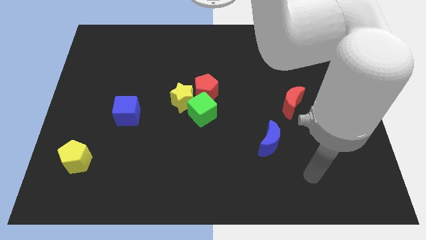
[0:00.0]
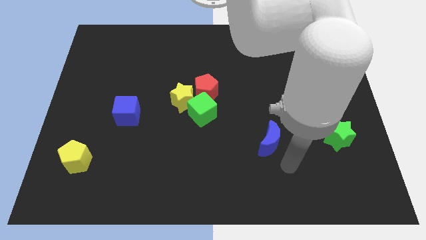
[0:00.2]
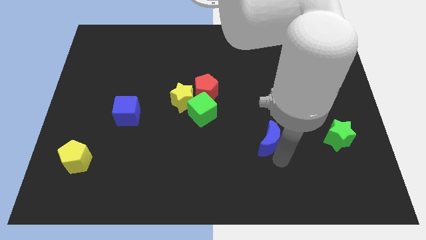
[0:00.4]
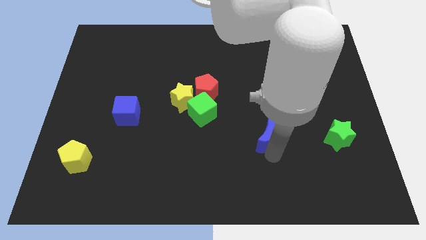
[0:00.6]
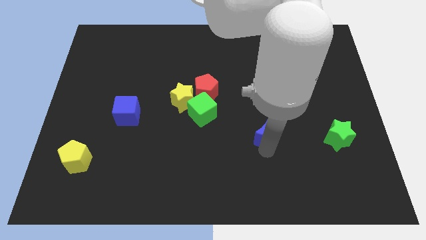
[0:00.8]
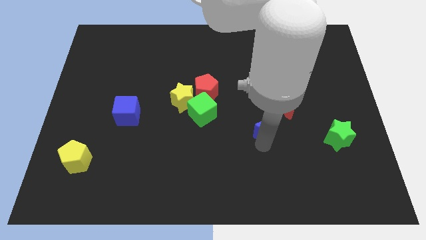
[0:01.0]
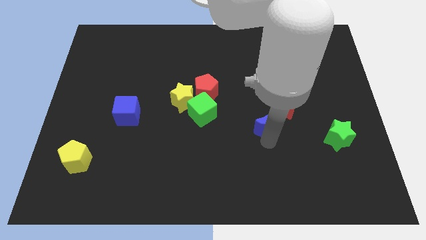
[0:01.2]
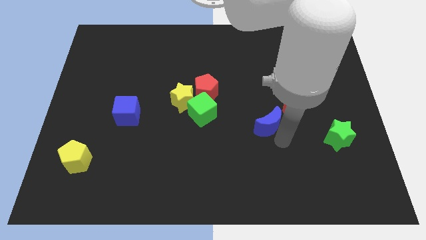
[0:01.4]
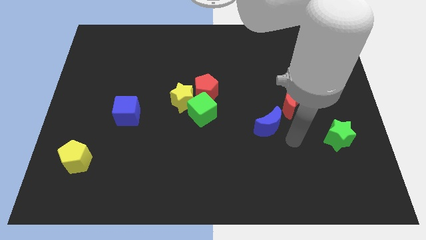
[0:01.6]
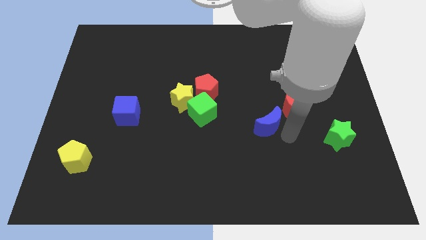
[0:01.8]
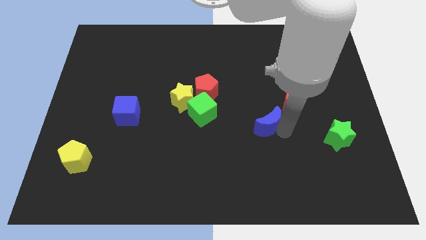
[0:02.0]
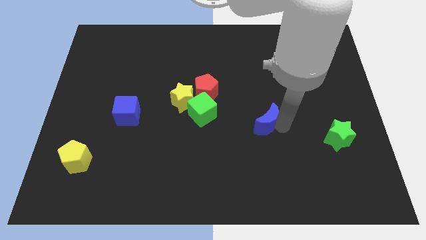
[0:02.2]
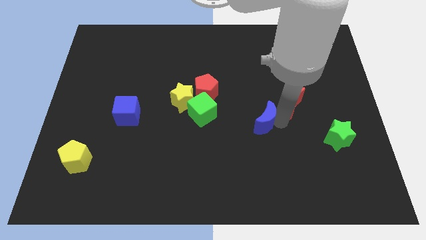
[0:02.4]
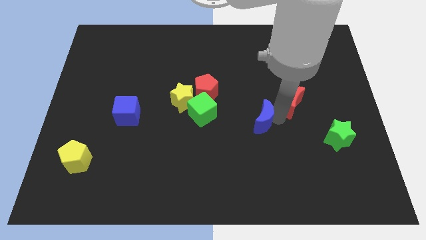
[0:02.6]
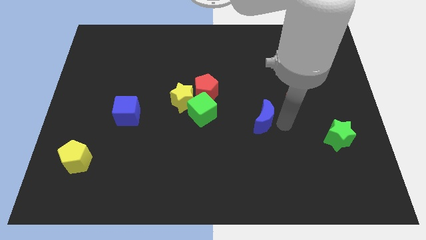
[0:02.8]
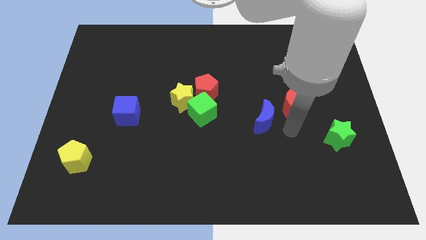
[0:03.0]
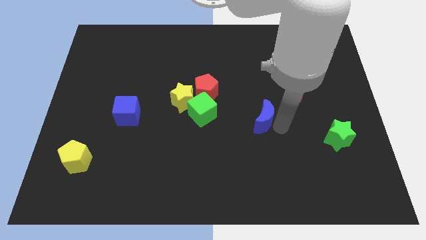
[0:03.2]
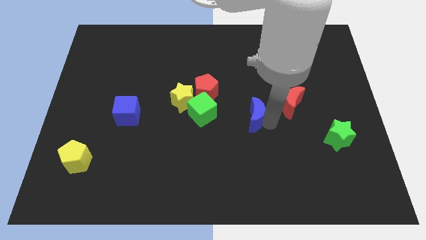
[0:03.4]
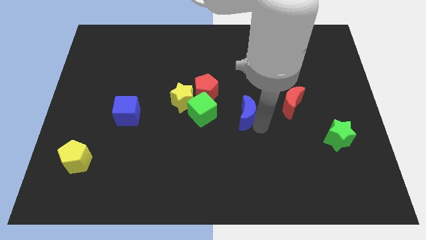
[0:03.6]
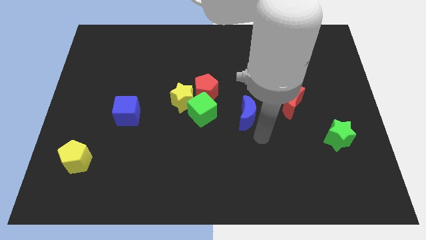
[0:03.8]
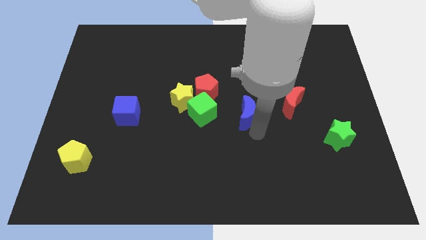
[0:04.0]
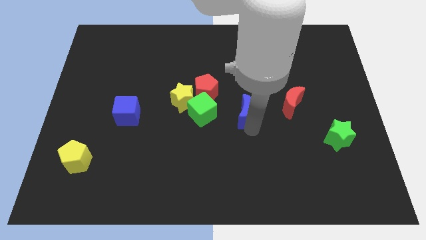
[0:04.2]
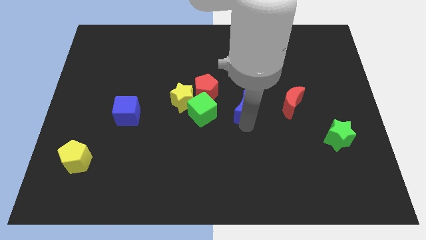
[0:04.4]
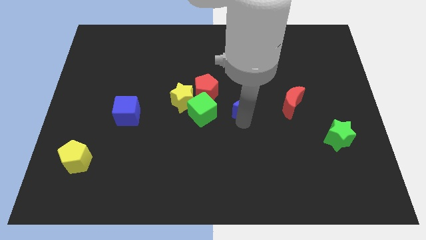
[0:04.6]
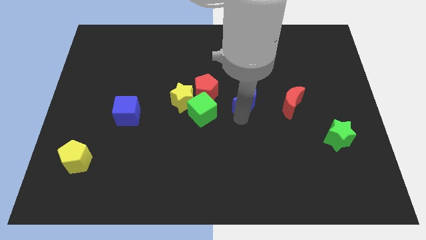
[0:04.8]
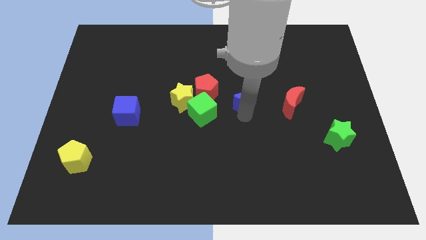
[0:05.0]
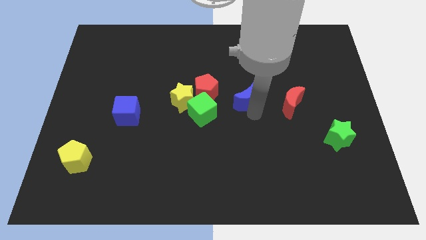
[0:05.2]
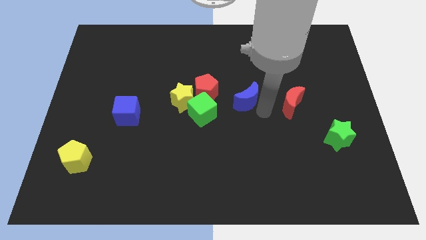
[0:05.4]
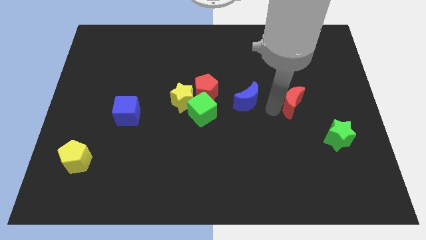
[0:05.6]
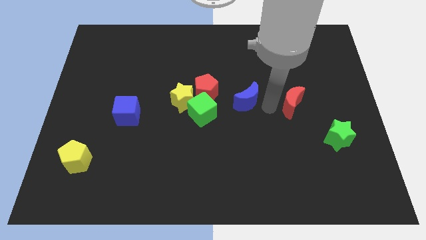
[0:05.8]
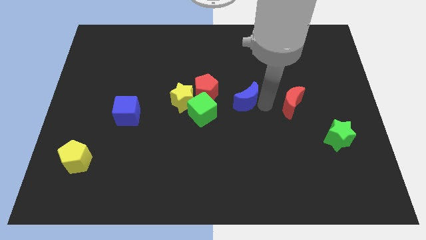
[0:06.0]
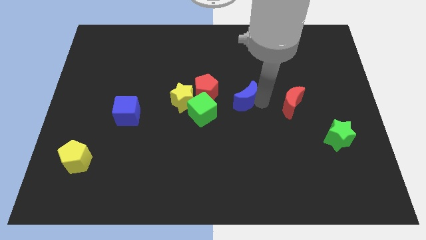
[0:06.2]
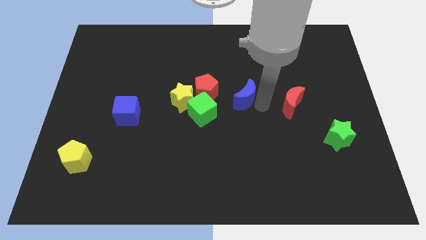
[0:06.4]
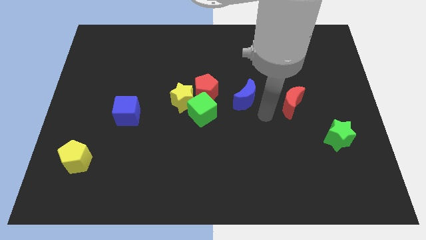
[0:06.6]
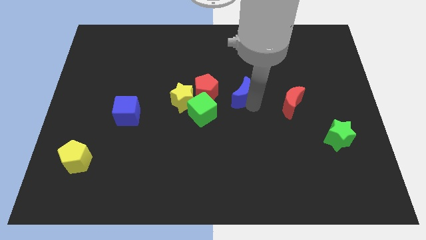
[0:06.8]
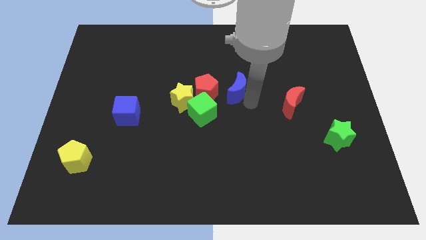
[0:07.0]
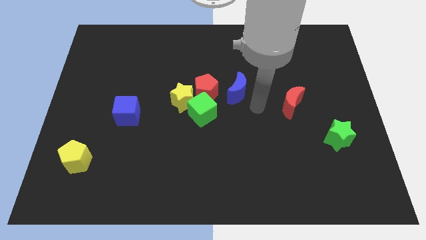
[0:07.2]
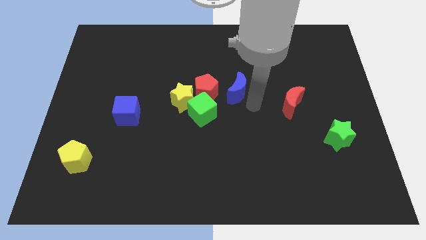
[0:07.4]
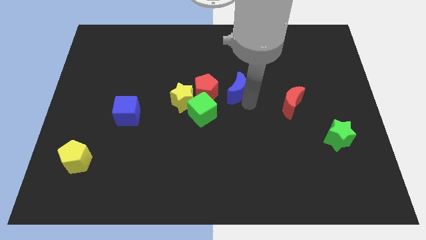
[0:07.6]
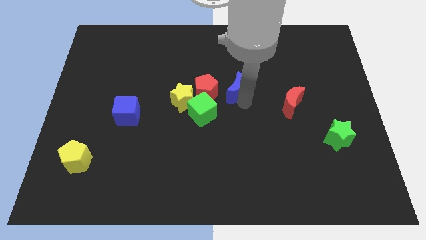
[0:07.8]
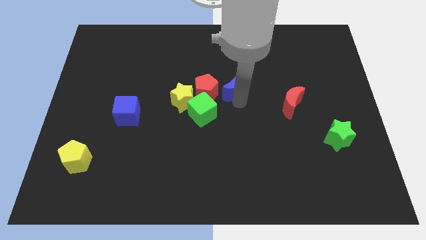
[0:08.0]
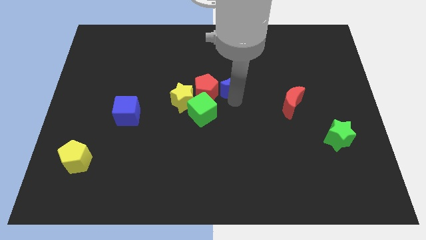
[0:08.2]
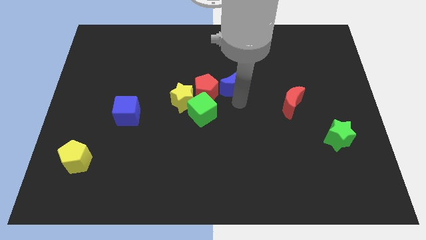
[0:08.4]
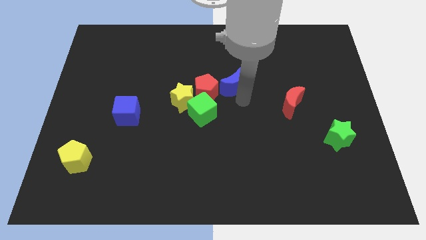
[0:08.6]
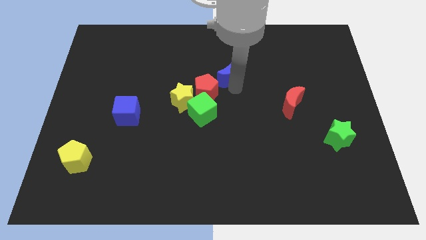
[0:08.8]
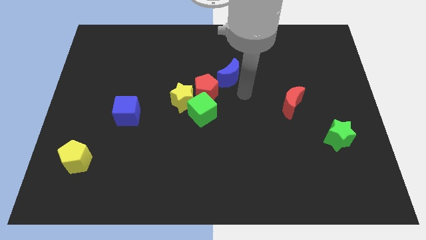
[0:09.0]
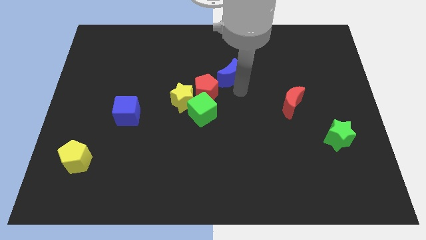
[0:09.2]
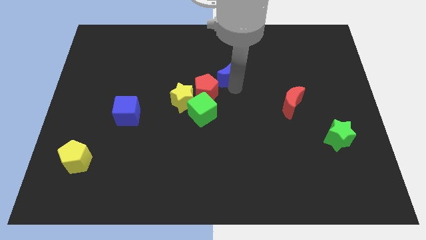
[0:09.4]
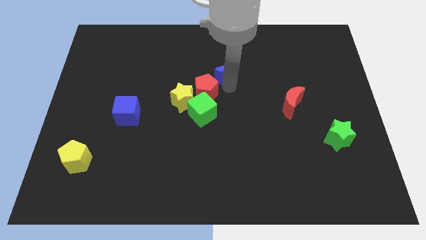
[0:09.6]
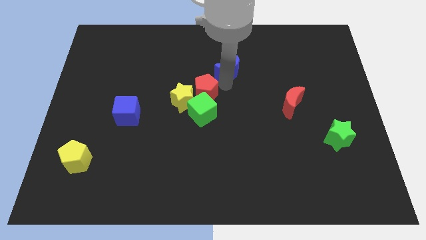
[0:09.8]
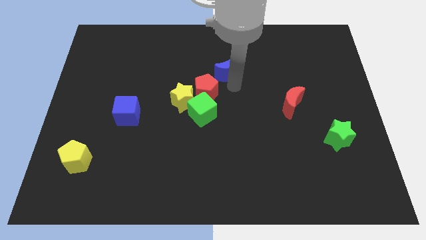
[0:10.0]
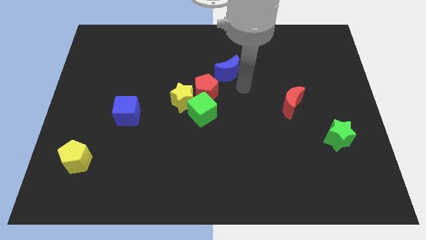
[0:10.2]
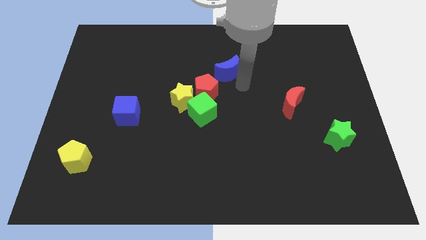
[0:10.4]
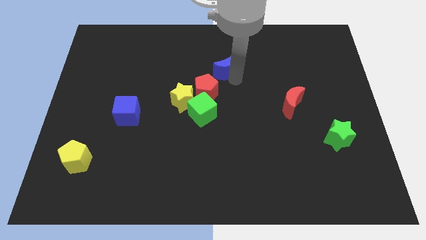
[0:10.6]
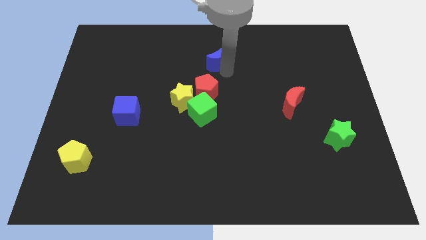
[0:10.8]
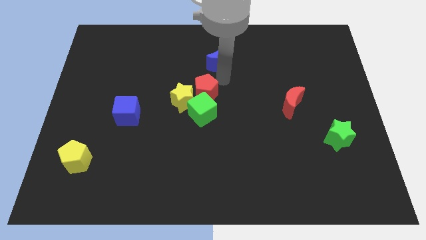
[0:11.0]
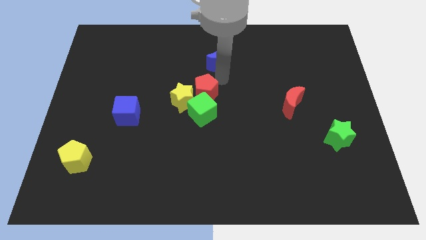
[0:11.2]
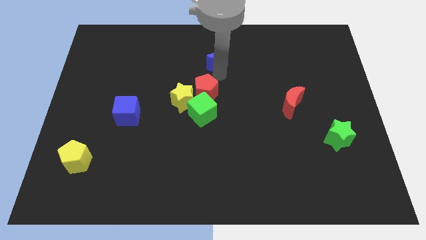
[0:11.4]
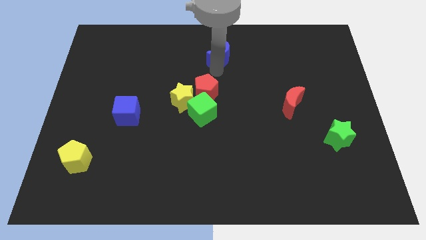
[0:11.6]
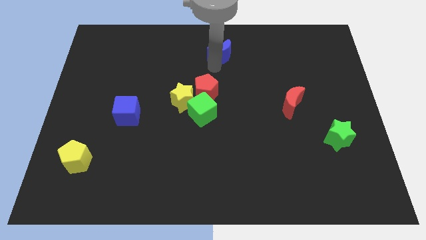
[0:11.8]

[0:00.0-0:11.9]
push the blue moon to the towards your base
